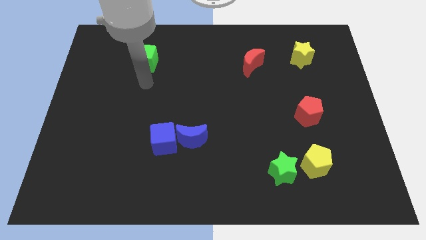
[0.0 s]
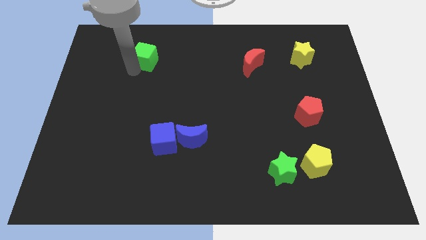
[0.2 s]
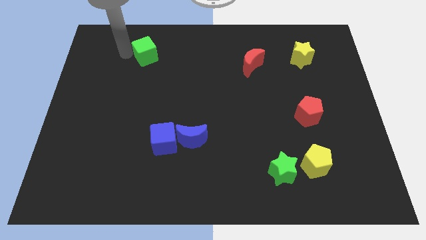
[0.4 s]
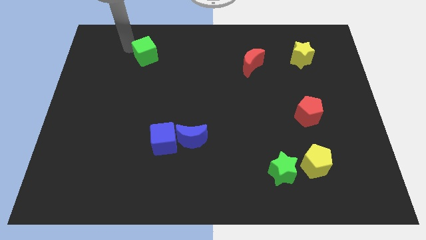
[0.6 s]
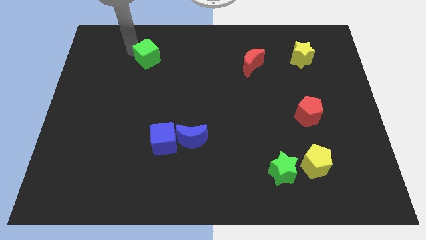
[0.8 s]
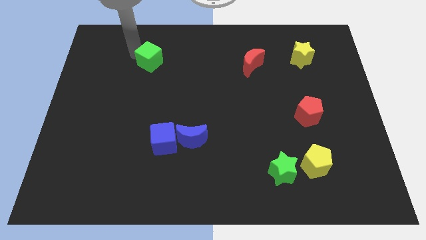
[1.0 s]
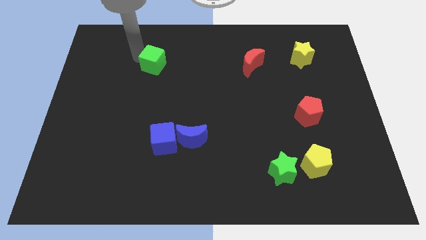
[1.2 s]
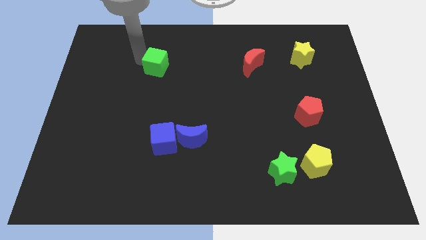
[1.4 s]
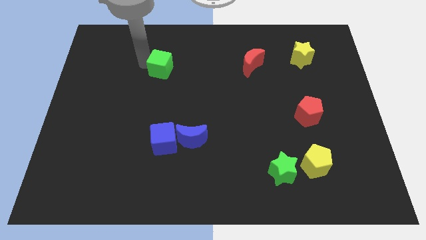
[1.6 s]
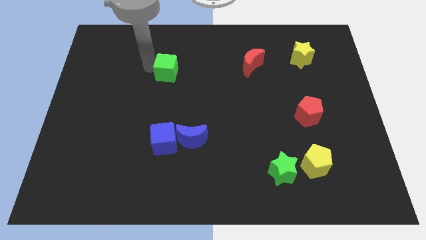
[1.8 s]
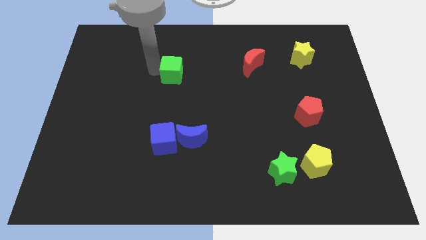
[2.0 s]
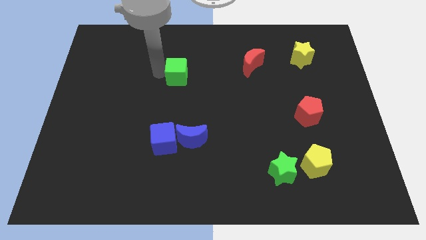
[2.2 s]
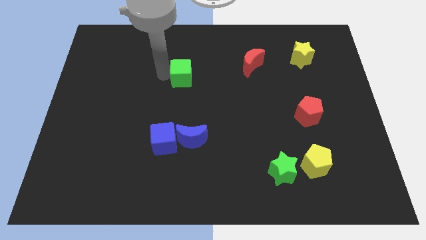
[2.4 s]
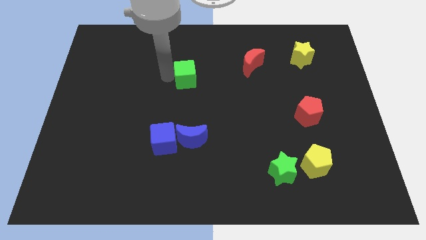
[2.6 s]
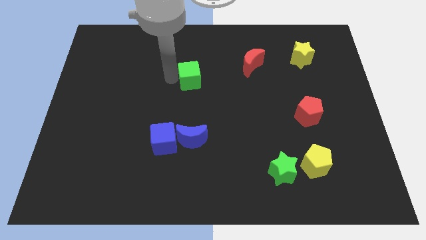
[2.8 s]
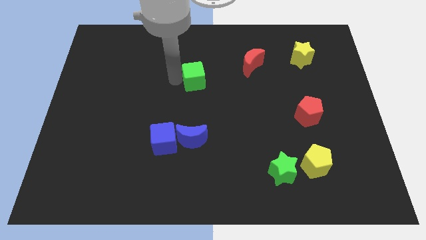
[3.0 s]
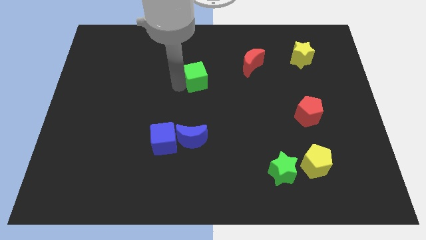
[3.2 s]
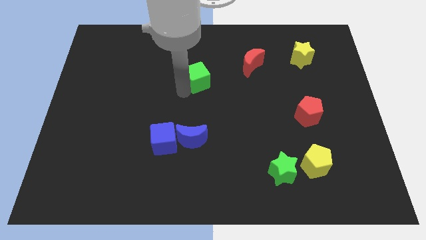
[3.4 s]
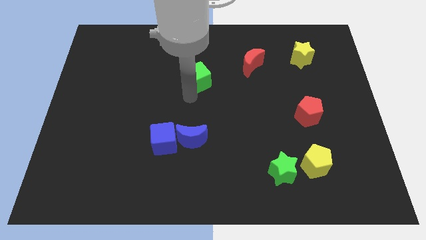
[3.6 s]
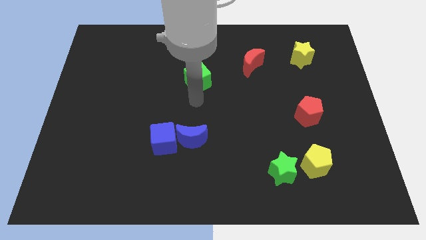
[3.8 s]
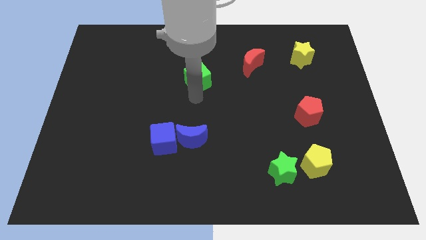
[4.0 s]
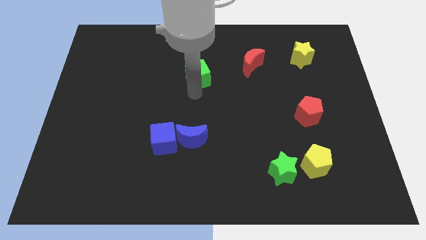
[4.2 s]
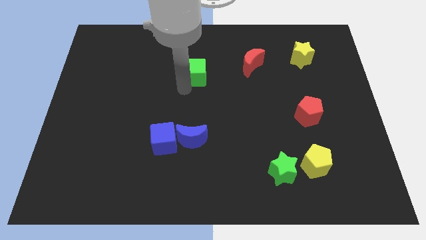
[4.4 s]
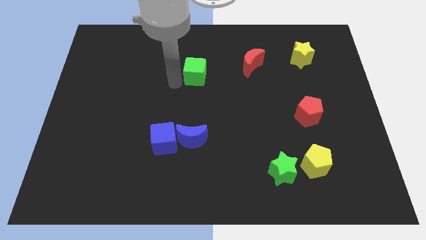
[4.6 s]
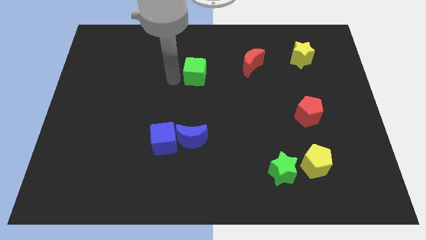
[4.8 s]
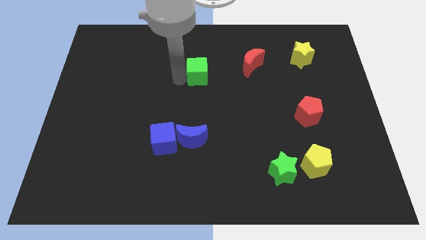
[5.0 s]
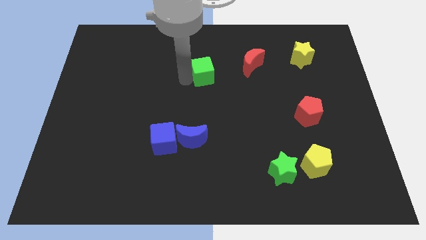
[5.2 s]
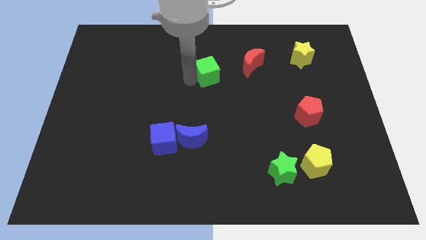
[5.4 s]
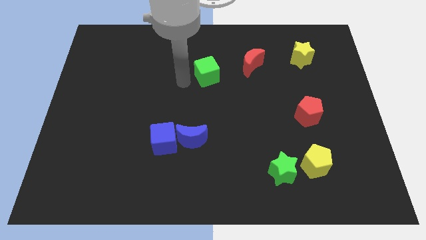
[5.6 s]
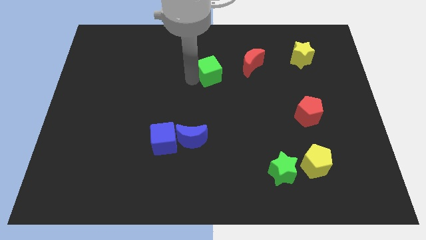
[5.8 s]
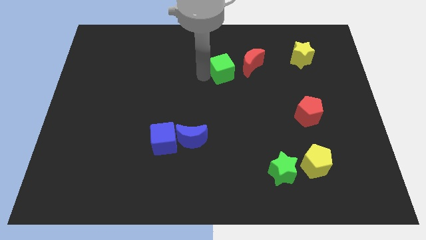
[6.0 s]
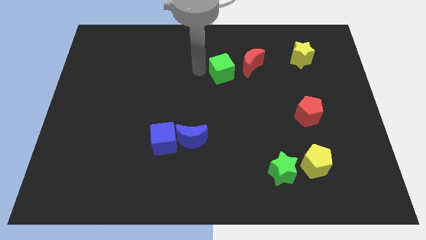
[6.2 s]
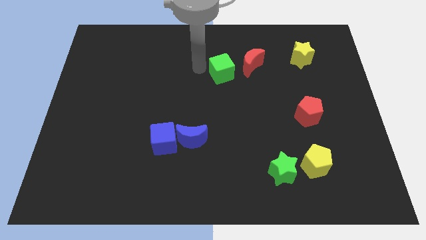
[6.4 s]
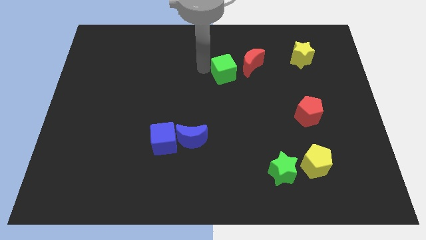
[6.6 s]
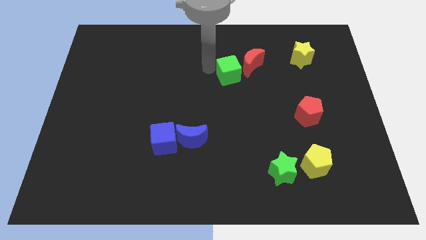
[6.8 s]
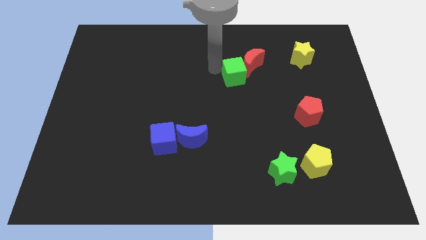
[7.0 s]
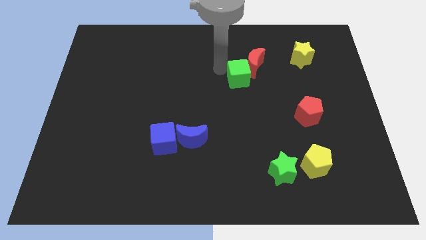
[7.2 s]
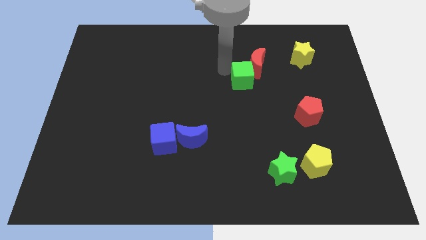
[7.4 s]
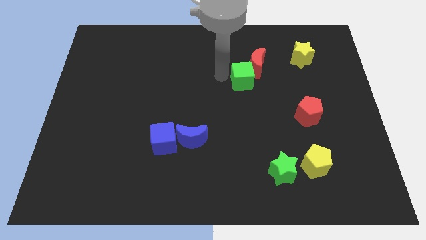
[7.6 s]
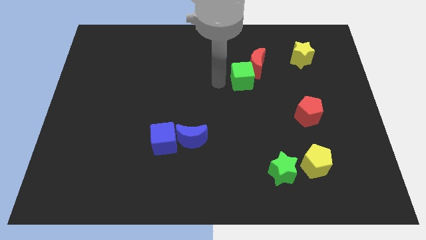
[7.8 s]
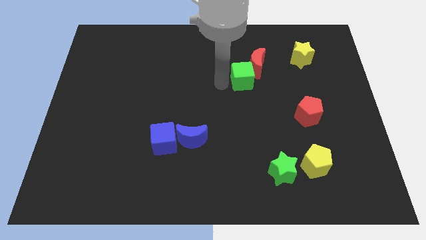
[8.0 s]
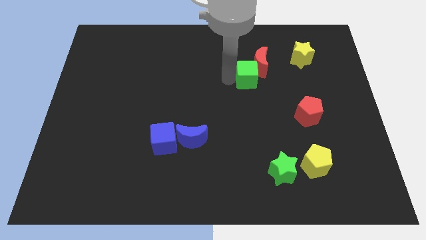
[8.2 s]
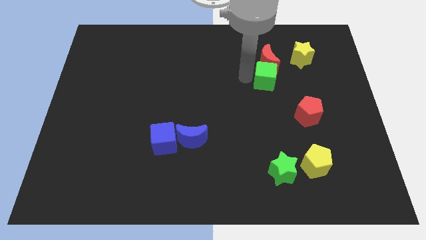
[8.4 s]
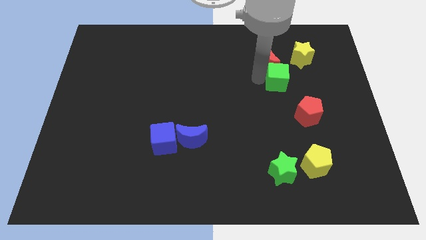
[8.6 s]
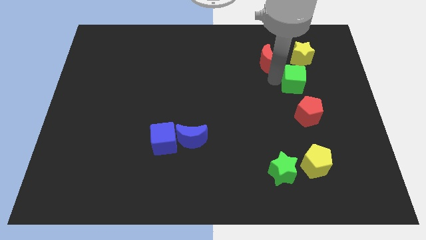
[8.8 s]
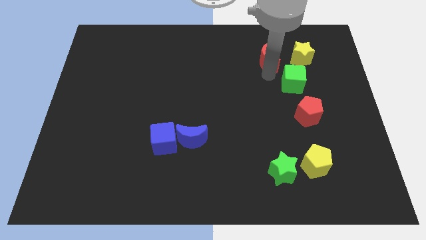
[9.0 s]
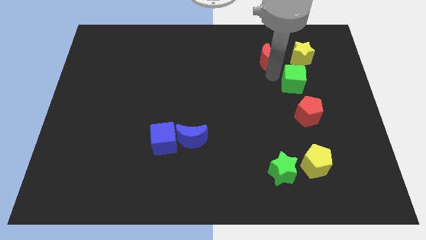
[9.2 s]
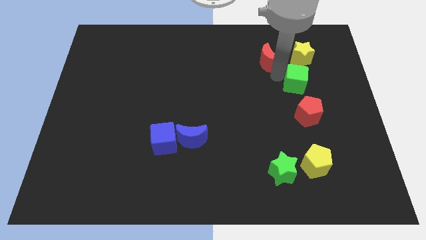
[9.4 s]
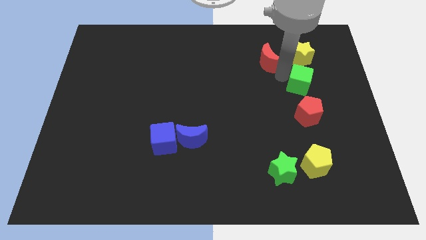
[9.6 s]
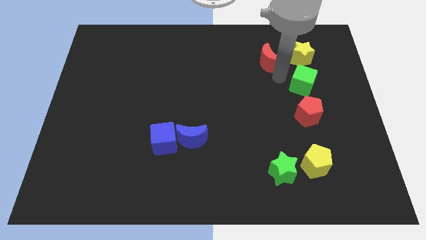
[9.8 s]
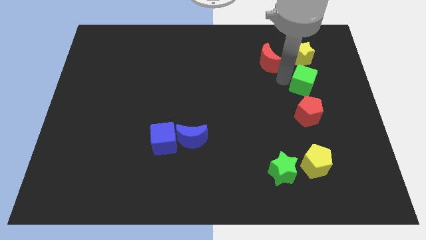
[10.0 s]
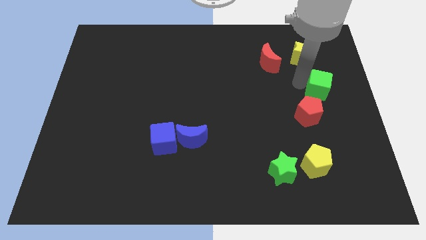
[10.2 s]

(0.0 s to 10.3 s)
push the green cube to the center right
